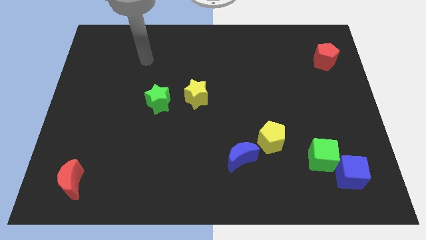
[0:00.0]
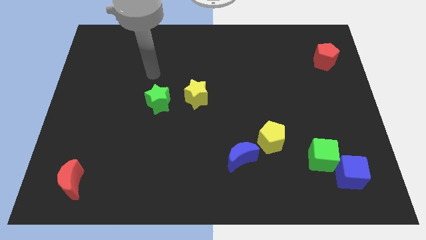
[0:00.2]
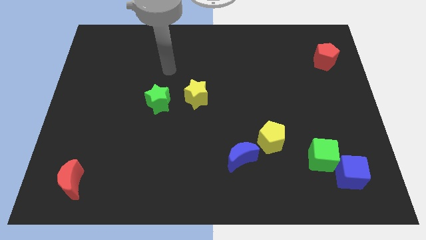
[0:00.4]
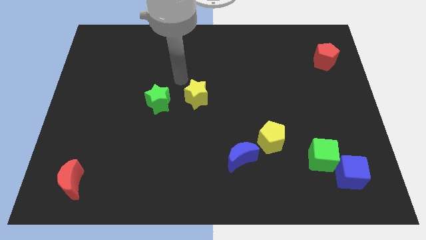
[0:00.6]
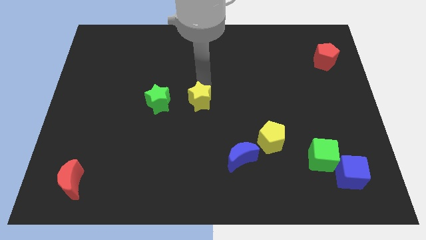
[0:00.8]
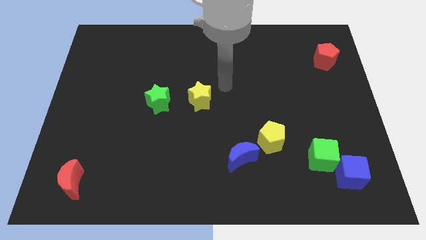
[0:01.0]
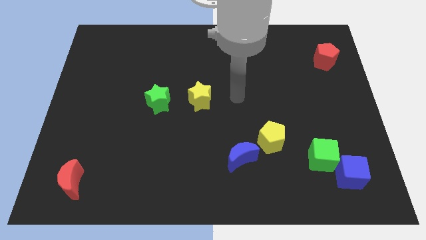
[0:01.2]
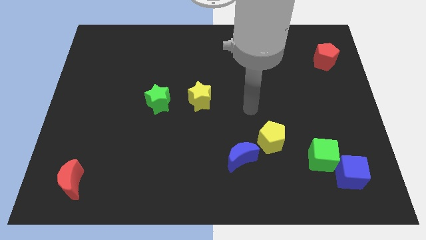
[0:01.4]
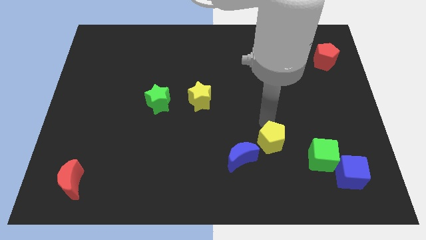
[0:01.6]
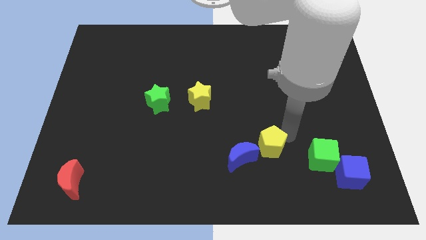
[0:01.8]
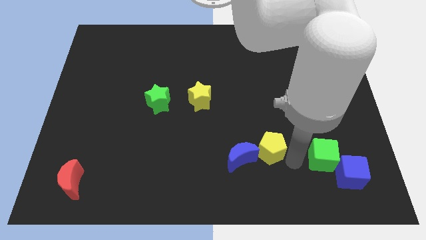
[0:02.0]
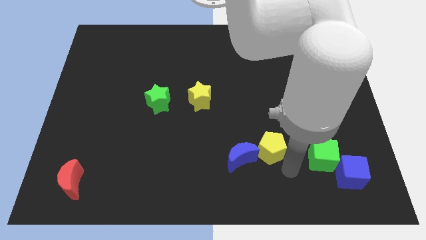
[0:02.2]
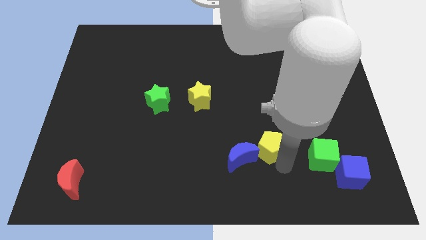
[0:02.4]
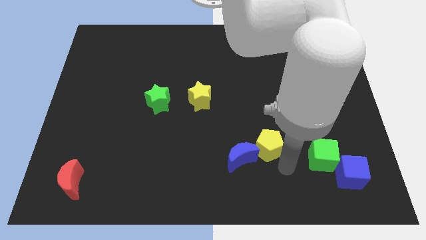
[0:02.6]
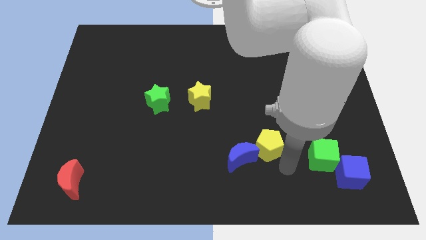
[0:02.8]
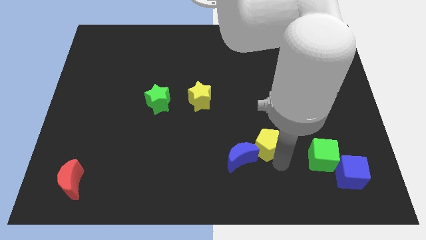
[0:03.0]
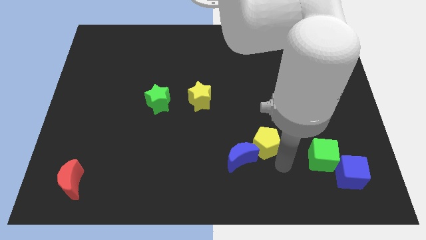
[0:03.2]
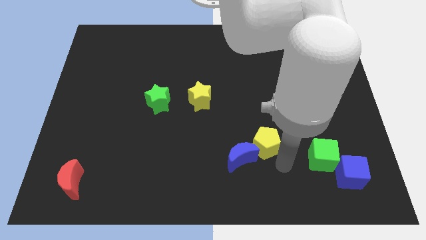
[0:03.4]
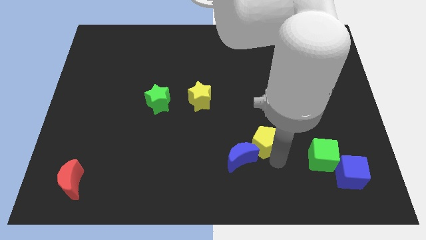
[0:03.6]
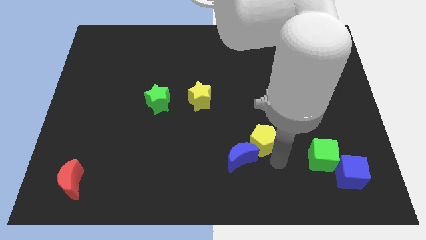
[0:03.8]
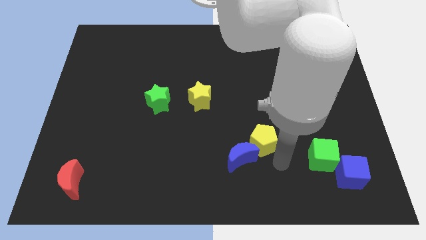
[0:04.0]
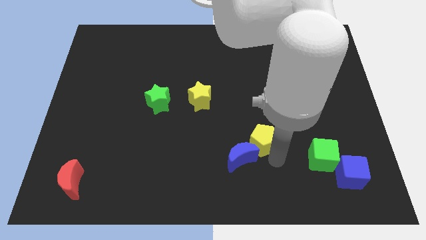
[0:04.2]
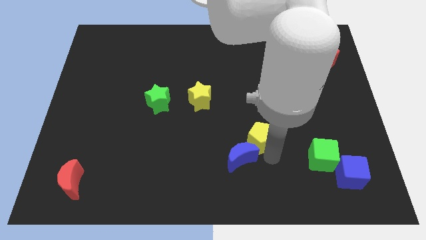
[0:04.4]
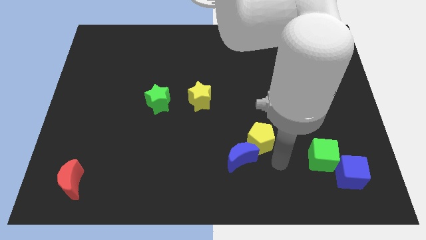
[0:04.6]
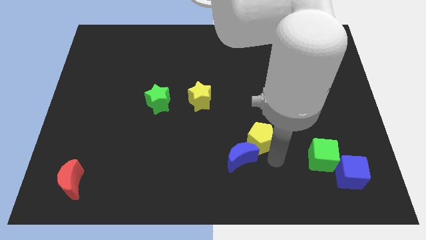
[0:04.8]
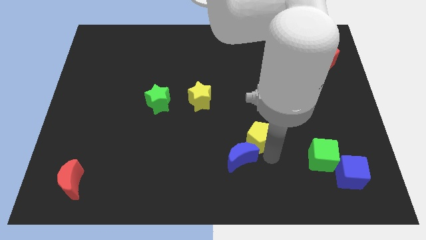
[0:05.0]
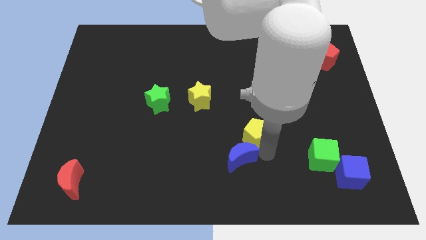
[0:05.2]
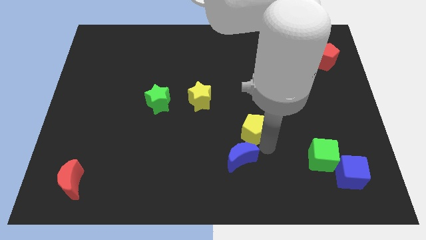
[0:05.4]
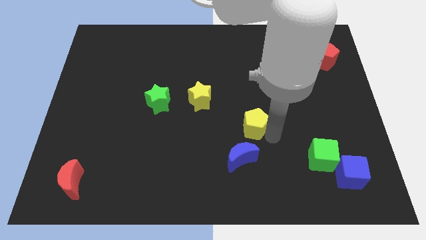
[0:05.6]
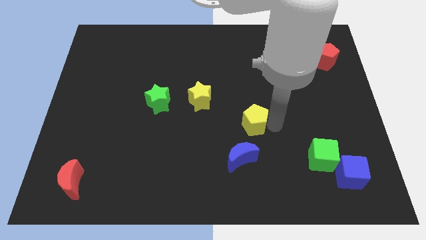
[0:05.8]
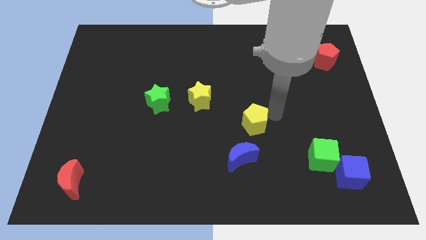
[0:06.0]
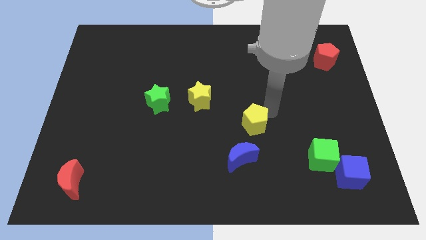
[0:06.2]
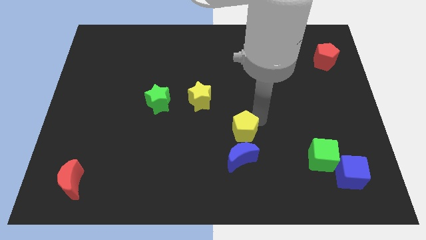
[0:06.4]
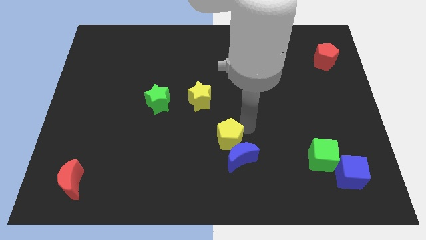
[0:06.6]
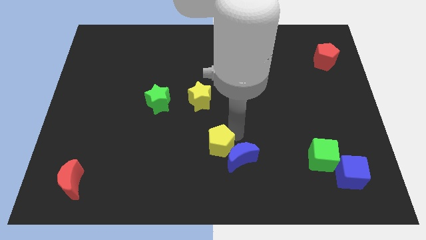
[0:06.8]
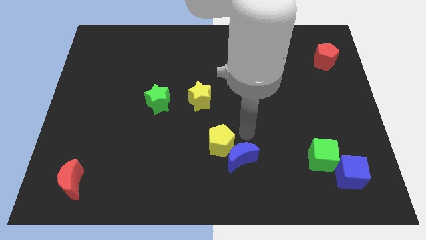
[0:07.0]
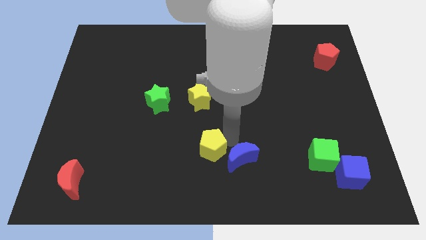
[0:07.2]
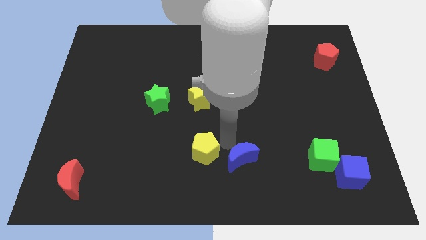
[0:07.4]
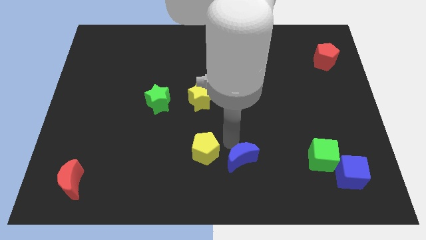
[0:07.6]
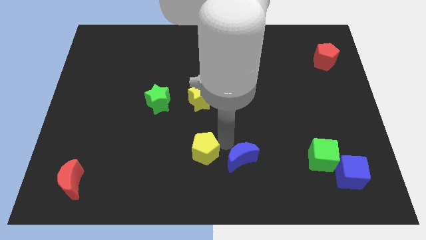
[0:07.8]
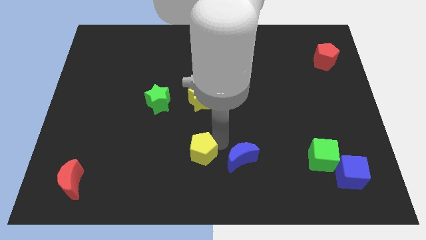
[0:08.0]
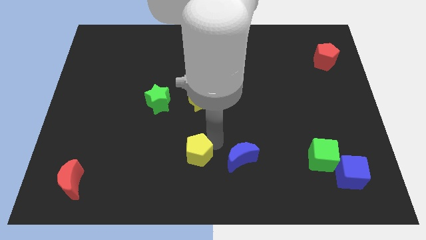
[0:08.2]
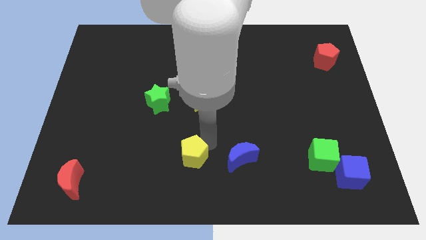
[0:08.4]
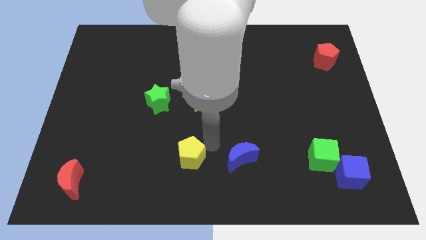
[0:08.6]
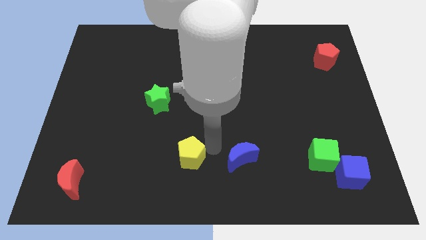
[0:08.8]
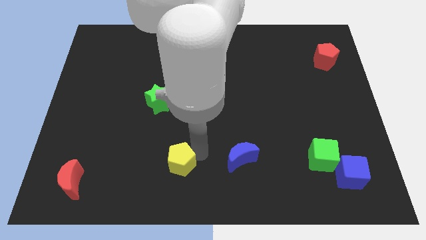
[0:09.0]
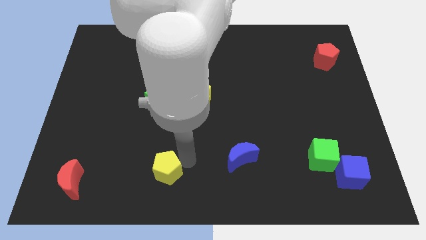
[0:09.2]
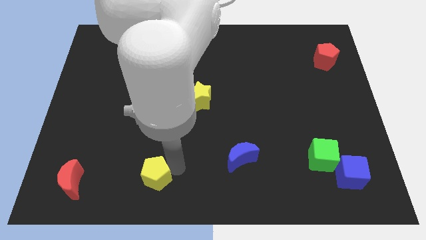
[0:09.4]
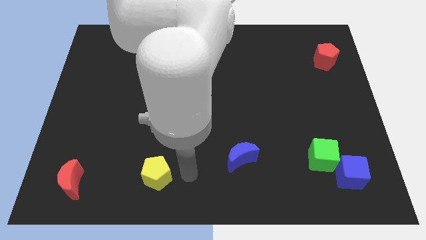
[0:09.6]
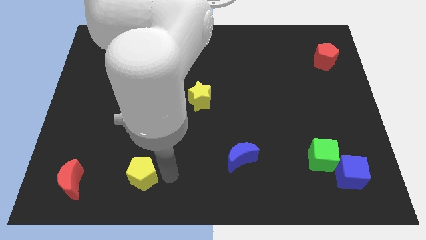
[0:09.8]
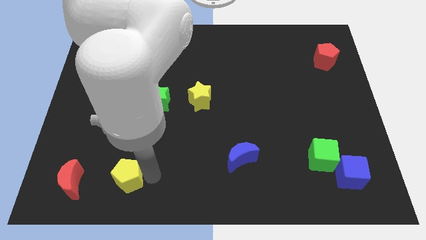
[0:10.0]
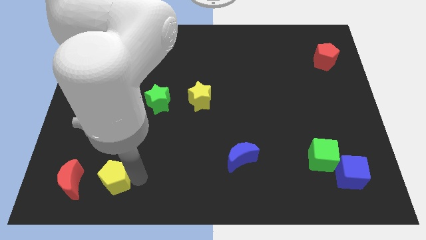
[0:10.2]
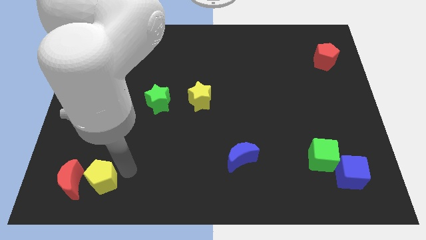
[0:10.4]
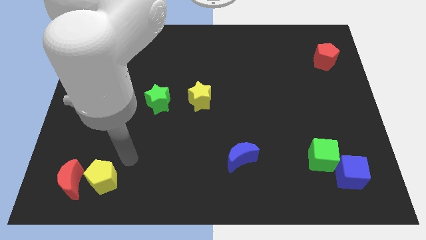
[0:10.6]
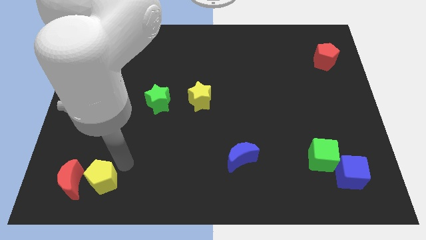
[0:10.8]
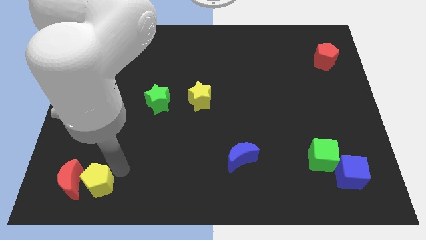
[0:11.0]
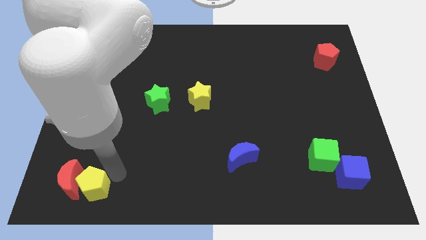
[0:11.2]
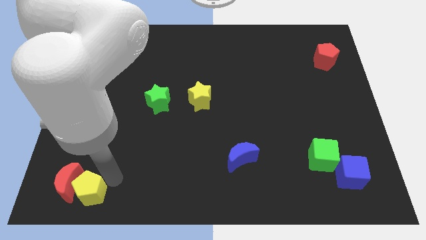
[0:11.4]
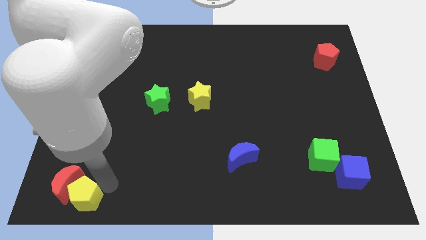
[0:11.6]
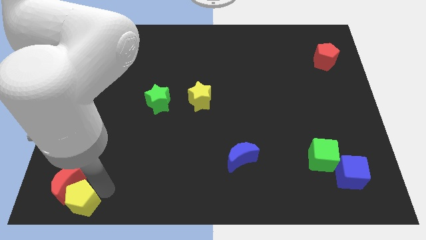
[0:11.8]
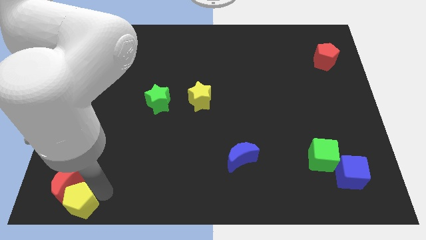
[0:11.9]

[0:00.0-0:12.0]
push the yellow pentagon to the bottom left corner

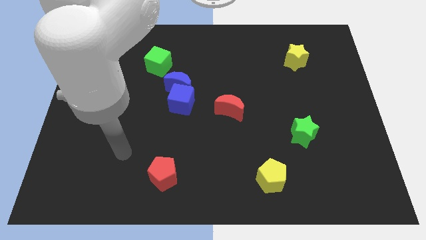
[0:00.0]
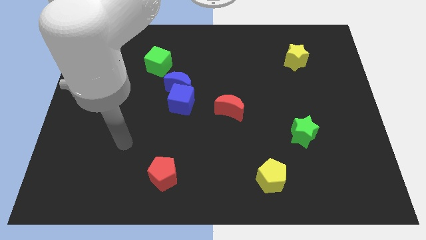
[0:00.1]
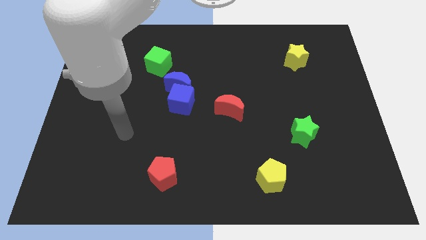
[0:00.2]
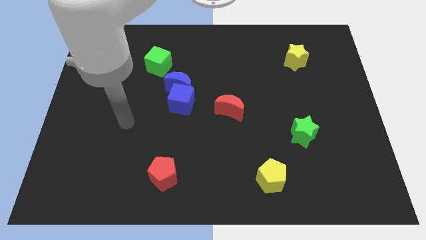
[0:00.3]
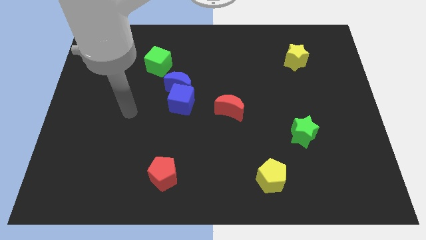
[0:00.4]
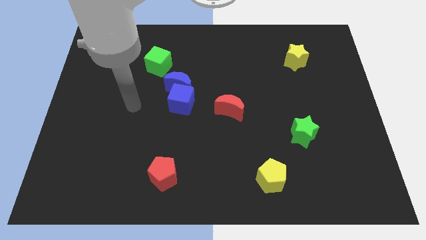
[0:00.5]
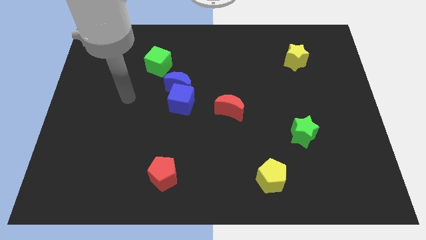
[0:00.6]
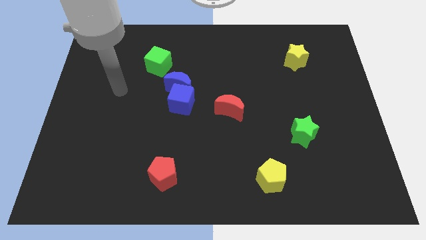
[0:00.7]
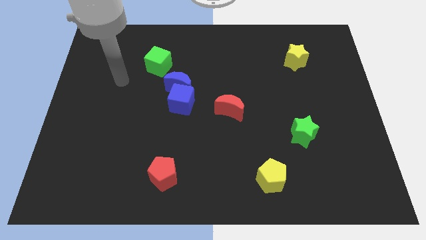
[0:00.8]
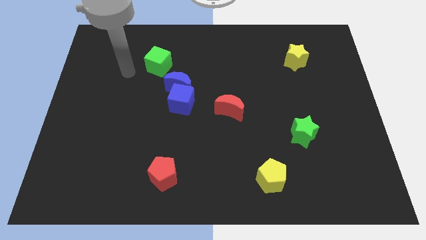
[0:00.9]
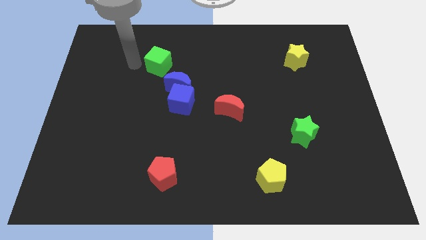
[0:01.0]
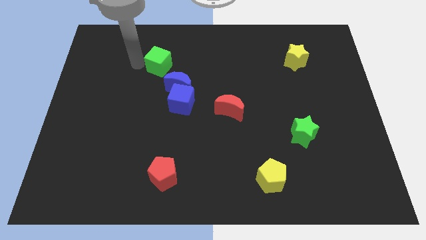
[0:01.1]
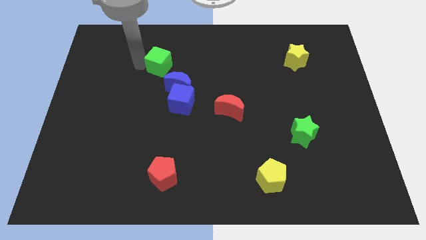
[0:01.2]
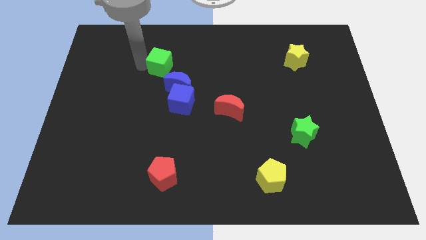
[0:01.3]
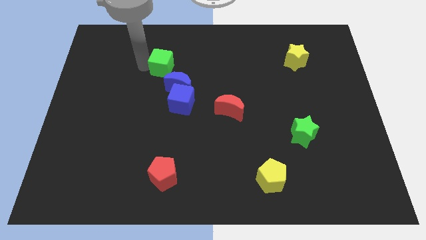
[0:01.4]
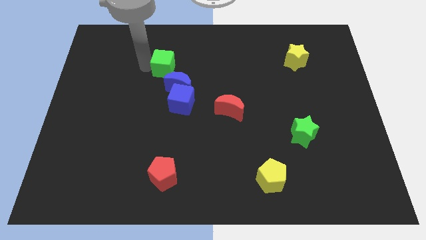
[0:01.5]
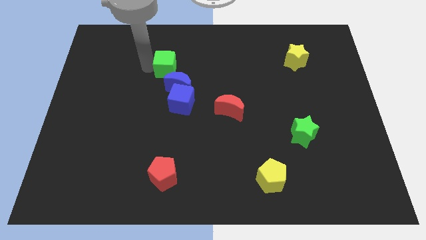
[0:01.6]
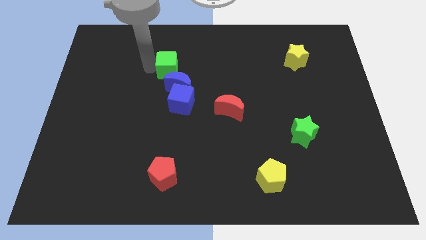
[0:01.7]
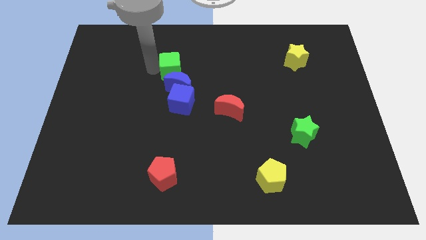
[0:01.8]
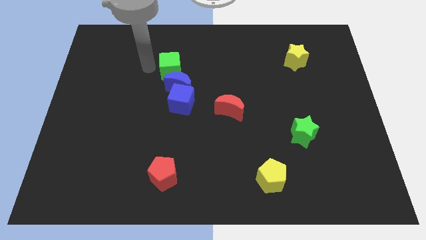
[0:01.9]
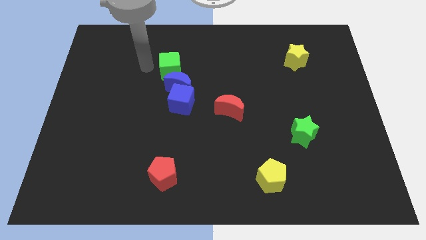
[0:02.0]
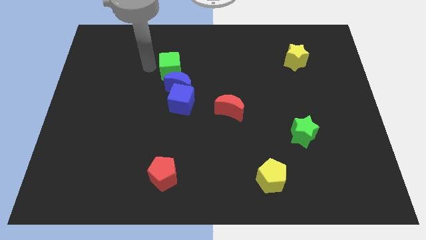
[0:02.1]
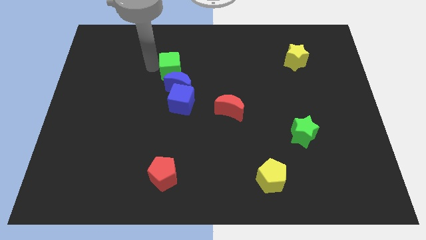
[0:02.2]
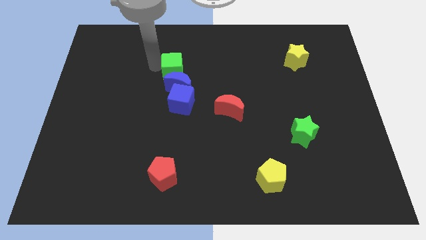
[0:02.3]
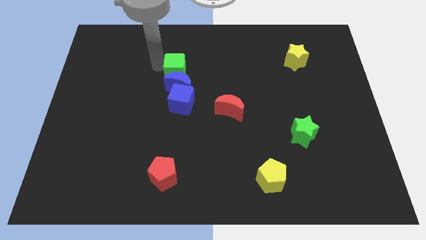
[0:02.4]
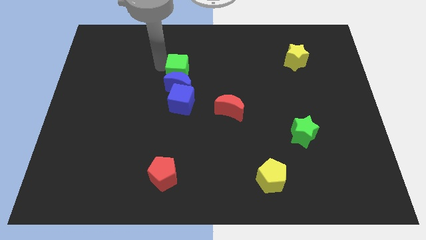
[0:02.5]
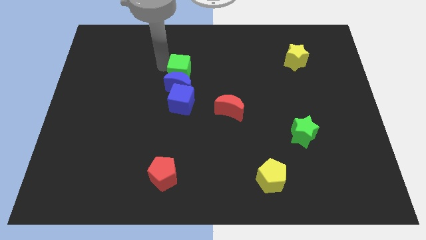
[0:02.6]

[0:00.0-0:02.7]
put the green cube to the center
